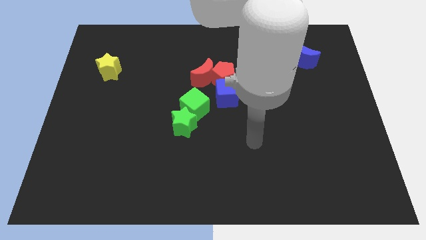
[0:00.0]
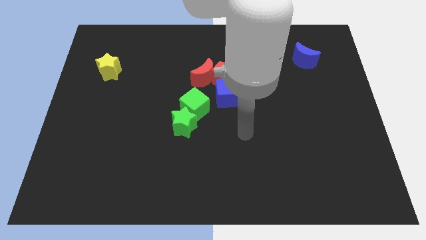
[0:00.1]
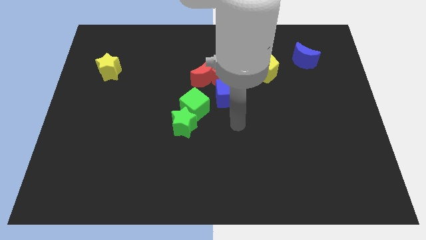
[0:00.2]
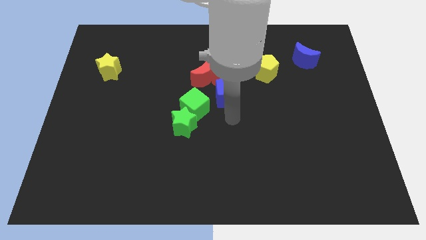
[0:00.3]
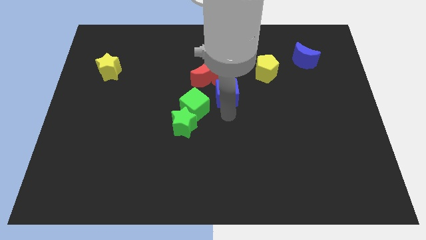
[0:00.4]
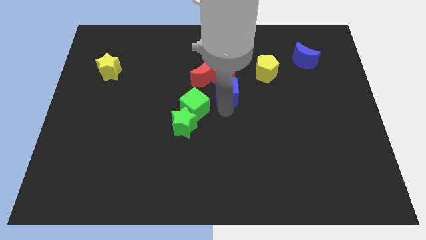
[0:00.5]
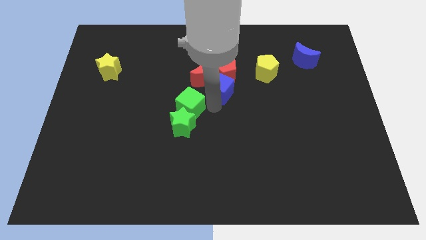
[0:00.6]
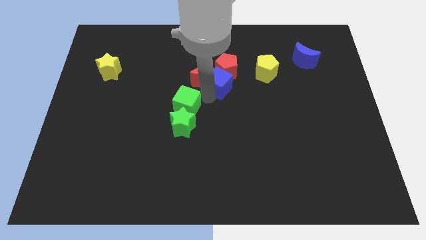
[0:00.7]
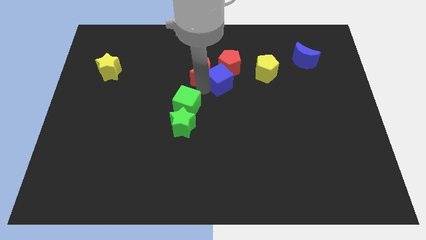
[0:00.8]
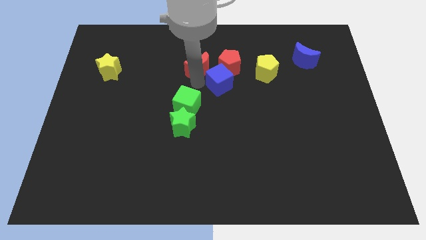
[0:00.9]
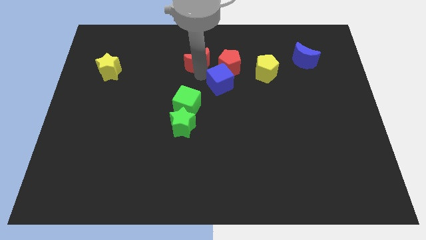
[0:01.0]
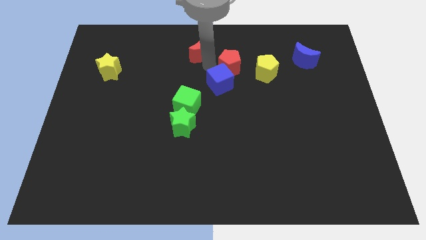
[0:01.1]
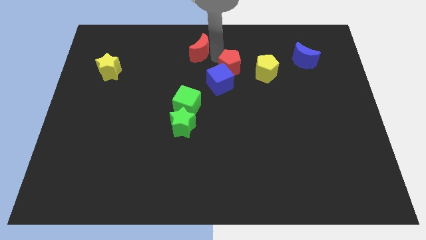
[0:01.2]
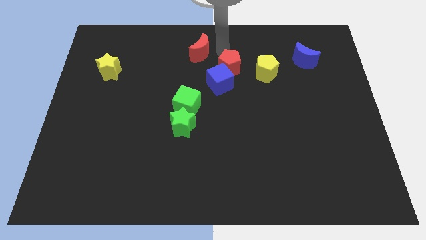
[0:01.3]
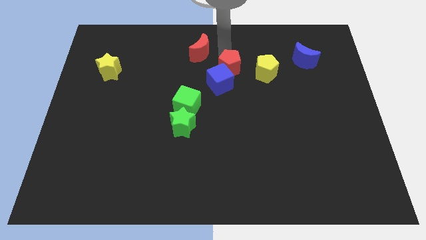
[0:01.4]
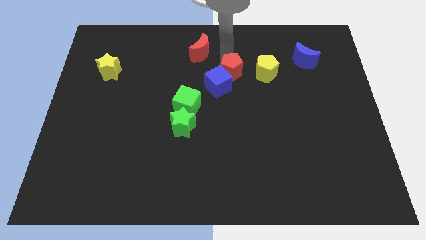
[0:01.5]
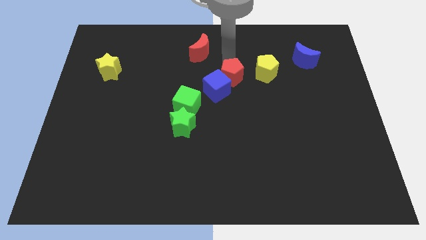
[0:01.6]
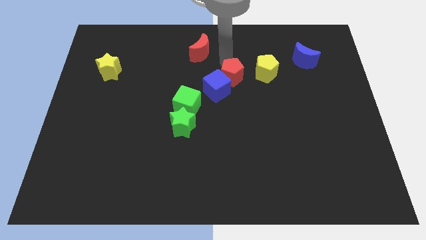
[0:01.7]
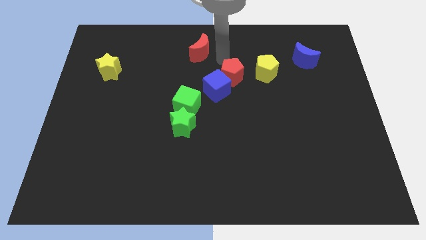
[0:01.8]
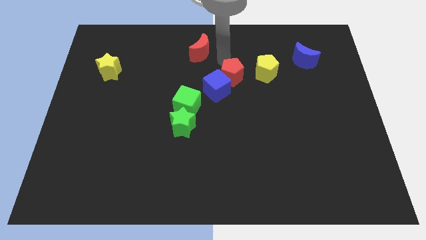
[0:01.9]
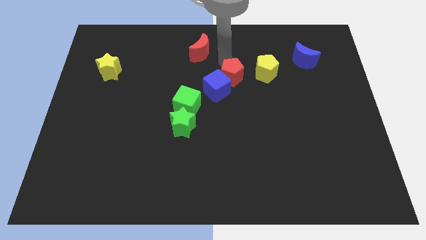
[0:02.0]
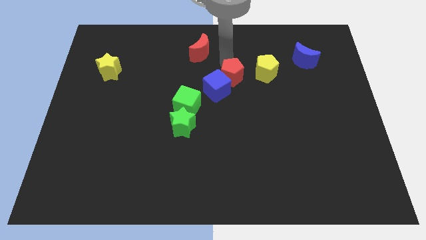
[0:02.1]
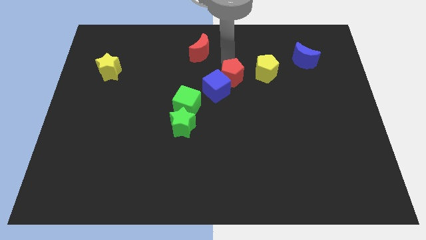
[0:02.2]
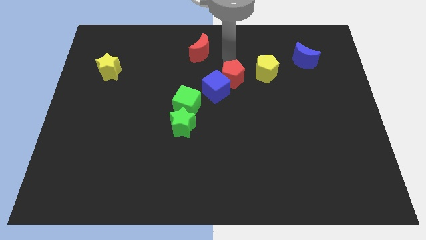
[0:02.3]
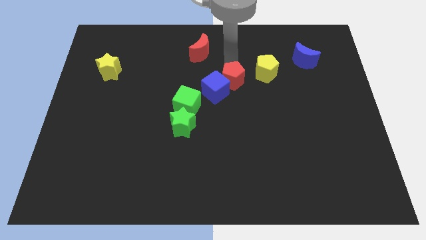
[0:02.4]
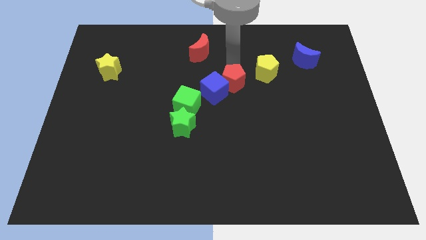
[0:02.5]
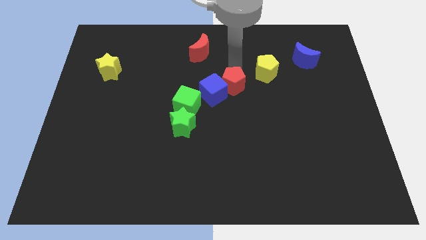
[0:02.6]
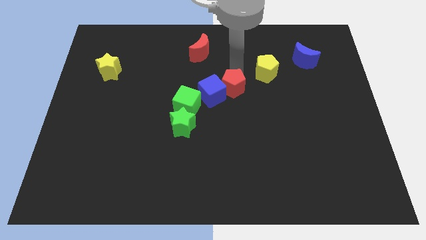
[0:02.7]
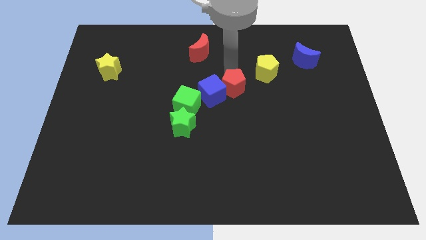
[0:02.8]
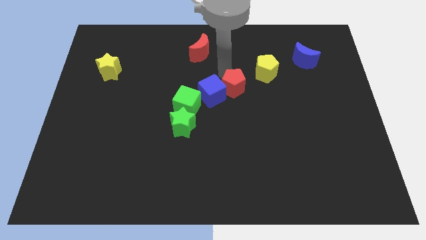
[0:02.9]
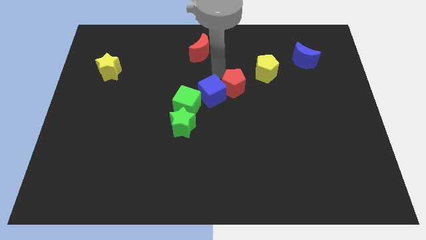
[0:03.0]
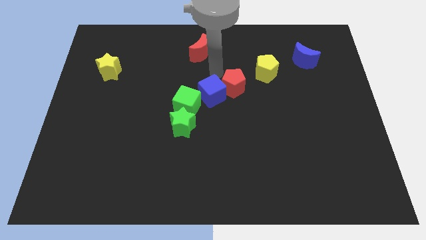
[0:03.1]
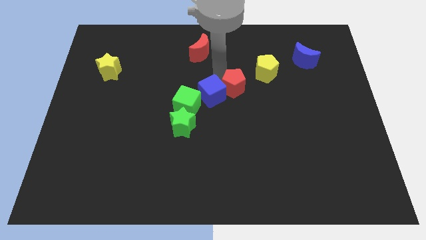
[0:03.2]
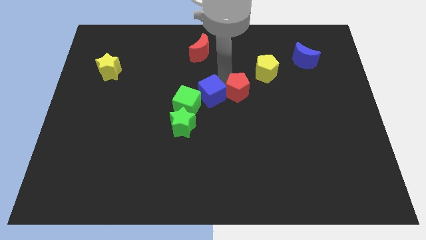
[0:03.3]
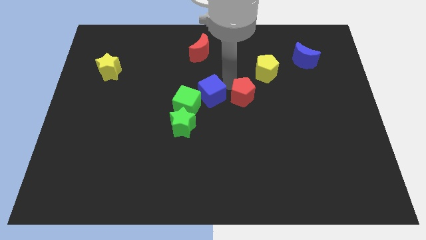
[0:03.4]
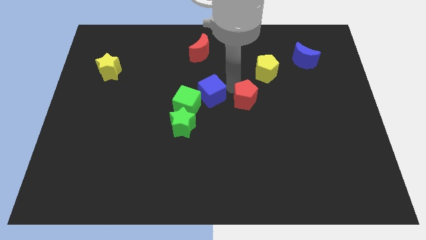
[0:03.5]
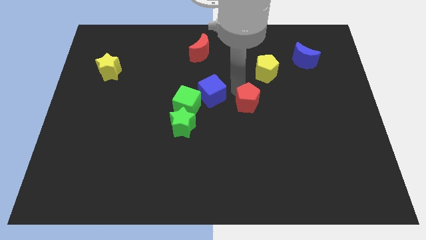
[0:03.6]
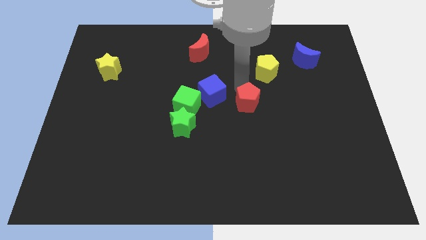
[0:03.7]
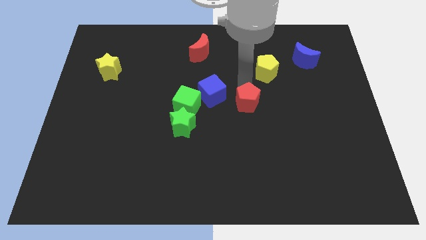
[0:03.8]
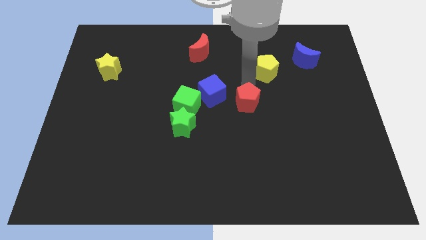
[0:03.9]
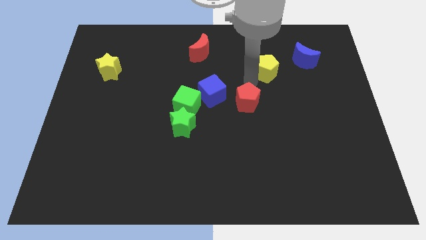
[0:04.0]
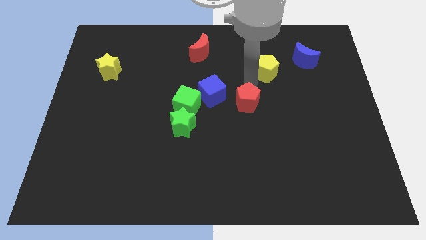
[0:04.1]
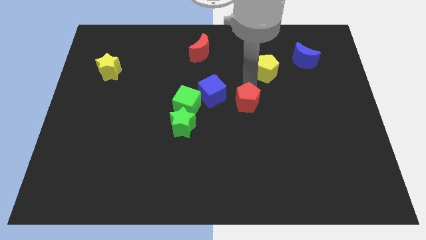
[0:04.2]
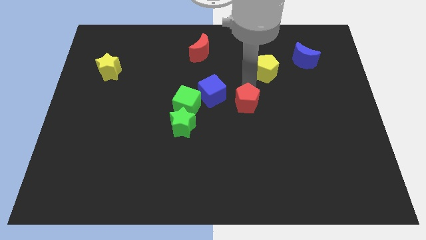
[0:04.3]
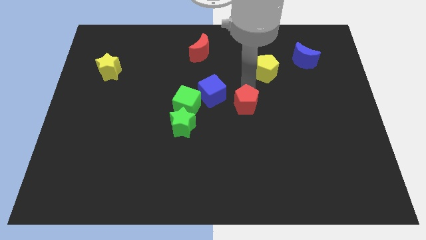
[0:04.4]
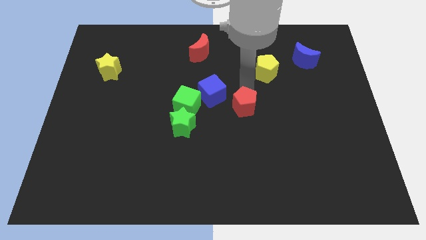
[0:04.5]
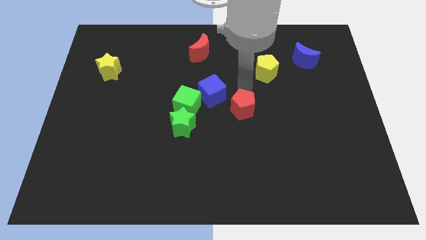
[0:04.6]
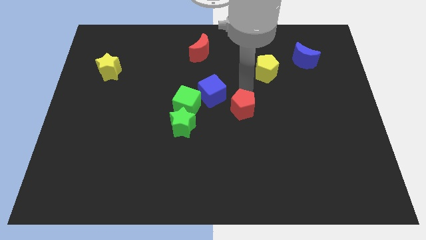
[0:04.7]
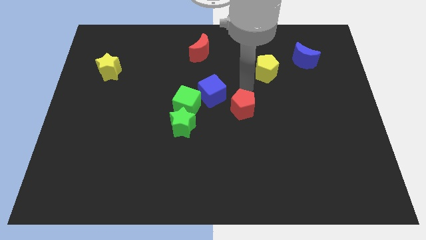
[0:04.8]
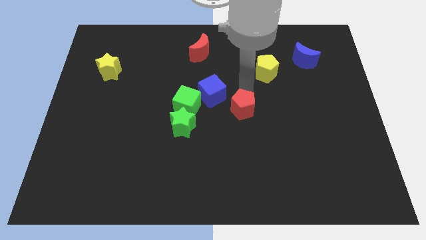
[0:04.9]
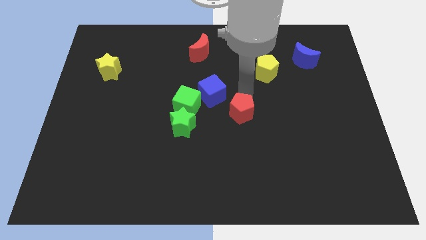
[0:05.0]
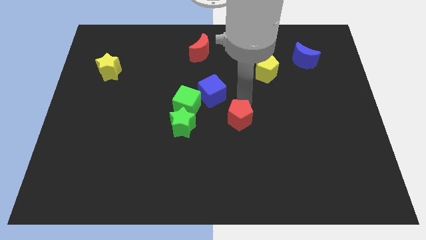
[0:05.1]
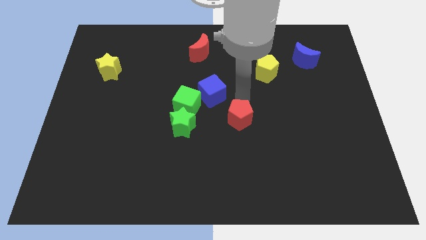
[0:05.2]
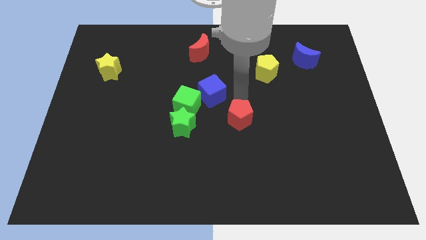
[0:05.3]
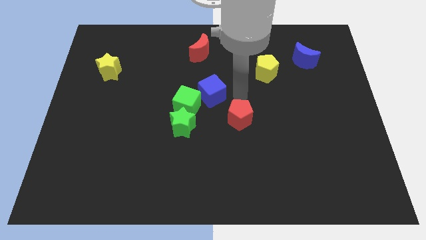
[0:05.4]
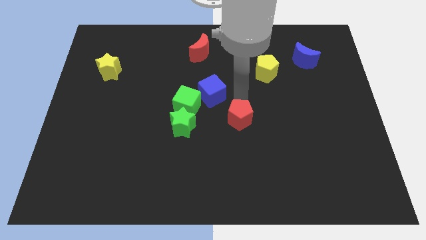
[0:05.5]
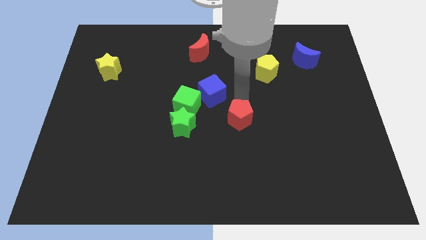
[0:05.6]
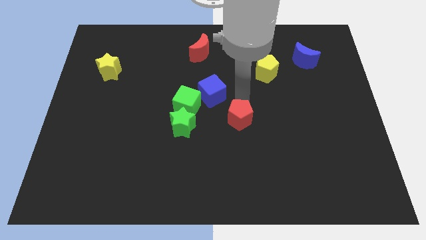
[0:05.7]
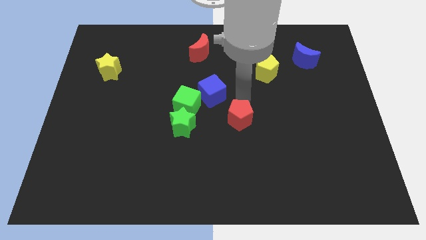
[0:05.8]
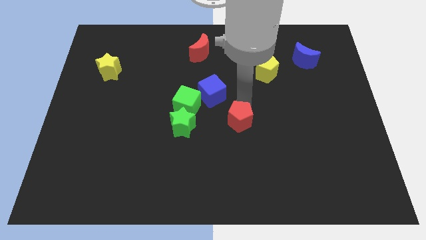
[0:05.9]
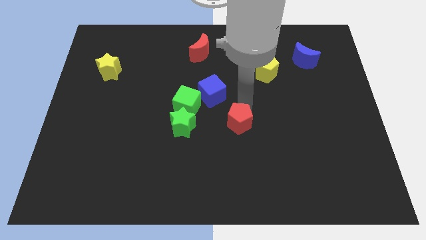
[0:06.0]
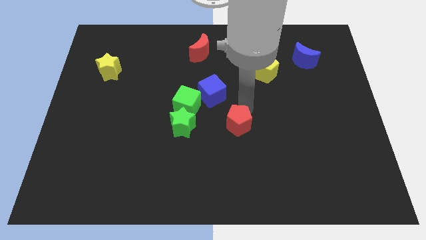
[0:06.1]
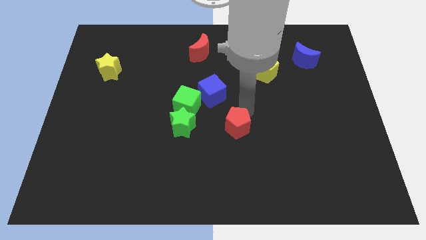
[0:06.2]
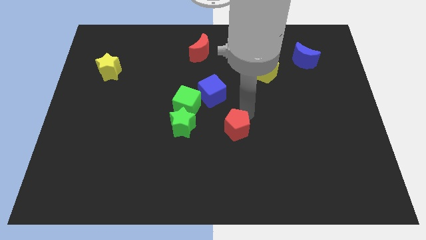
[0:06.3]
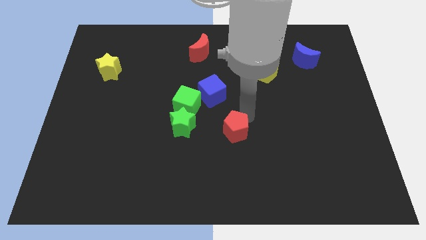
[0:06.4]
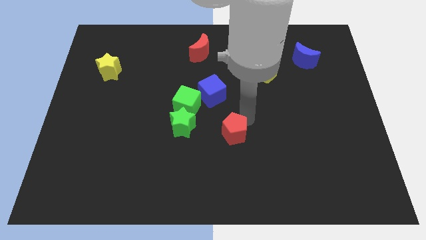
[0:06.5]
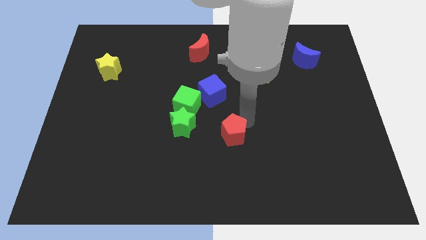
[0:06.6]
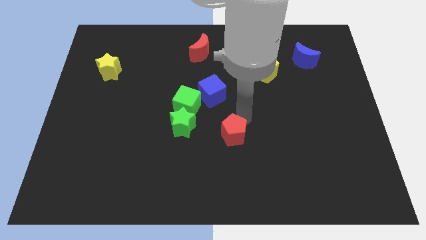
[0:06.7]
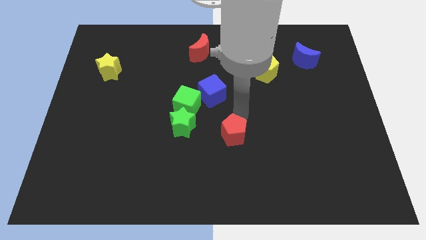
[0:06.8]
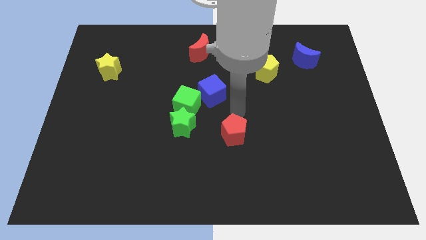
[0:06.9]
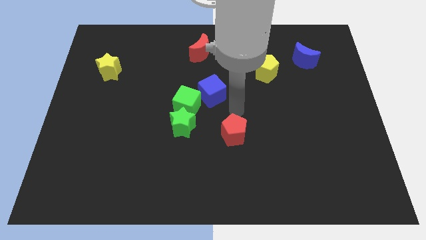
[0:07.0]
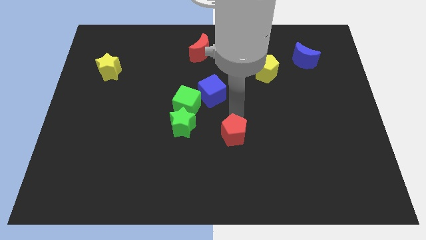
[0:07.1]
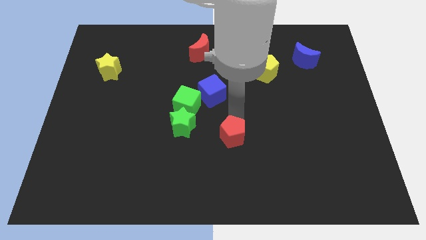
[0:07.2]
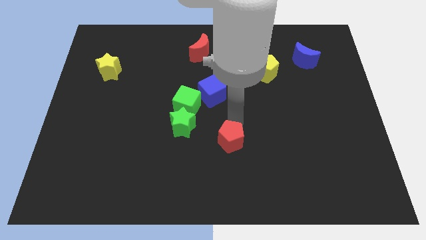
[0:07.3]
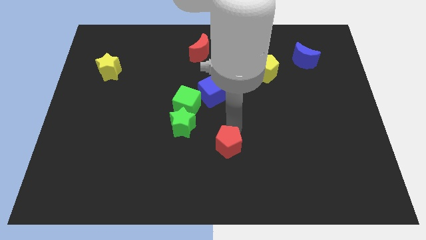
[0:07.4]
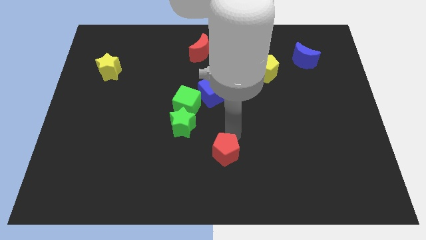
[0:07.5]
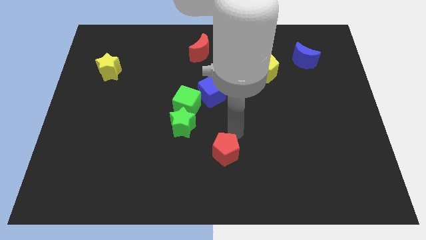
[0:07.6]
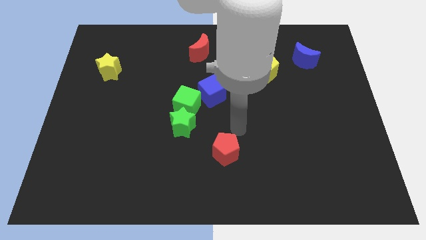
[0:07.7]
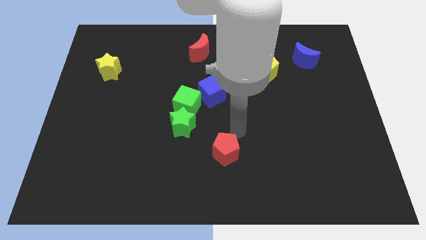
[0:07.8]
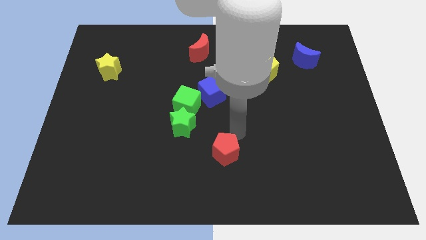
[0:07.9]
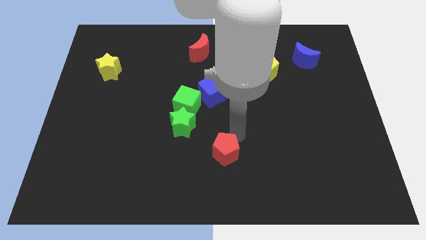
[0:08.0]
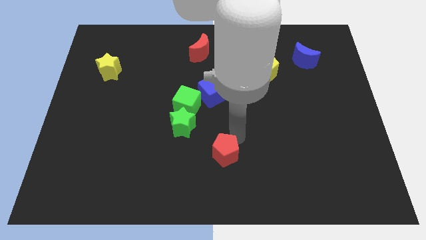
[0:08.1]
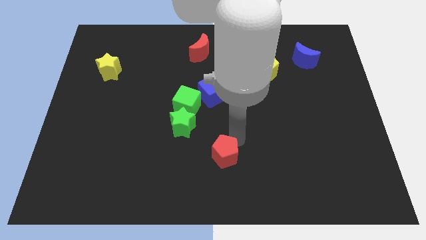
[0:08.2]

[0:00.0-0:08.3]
move the red pentagon to the bottom
